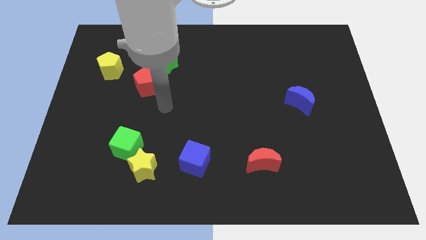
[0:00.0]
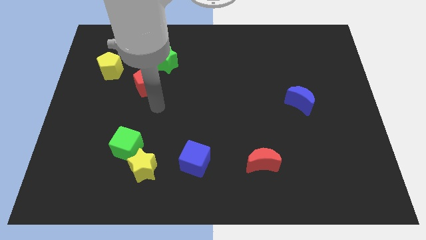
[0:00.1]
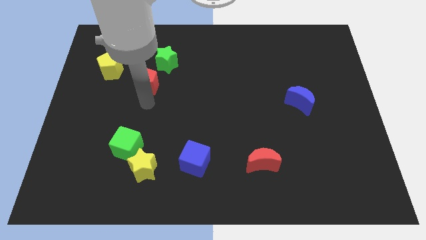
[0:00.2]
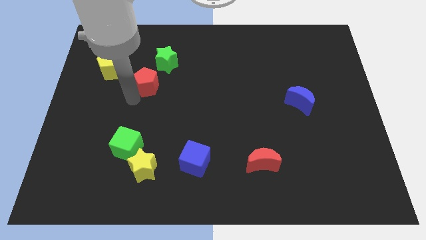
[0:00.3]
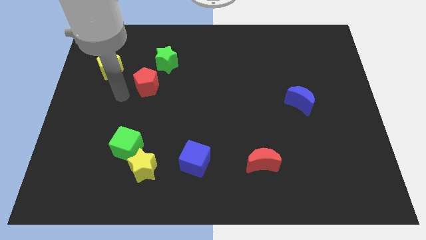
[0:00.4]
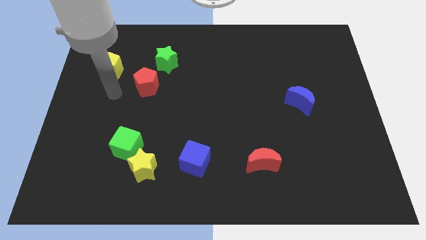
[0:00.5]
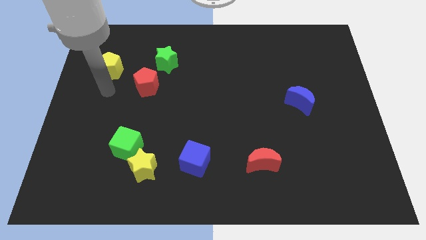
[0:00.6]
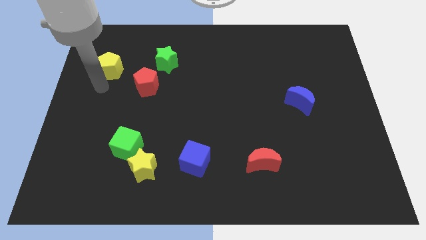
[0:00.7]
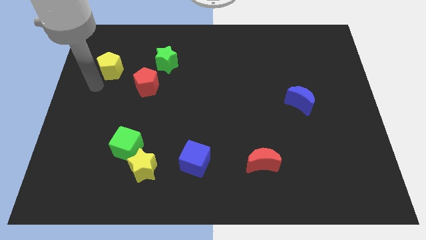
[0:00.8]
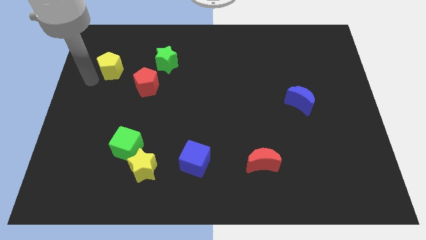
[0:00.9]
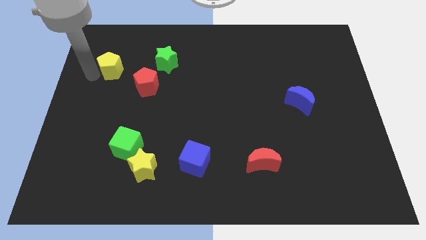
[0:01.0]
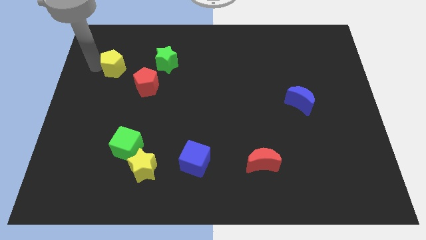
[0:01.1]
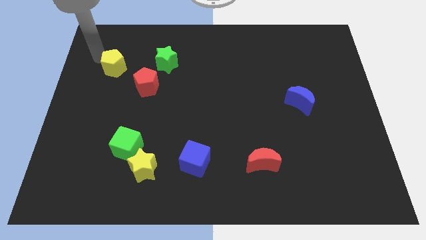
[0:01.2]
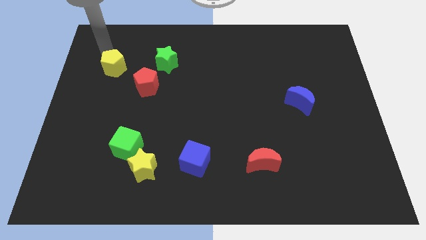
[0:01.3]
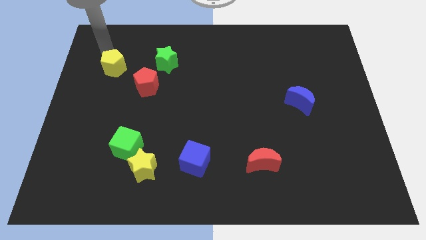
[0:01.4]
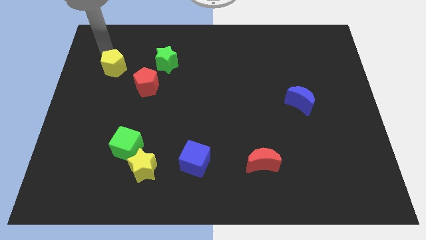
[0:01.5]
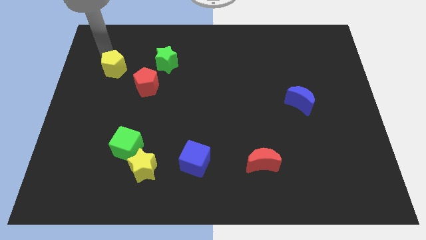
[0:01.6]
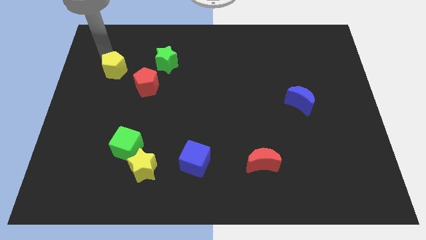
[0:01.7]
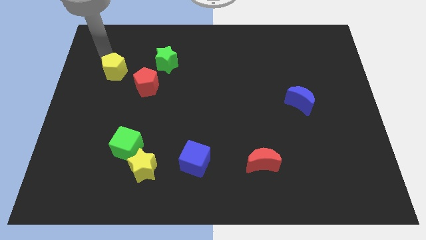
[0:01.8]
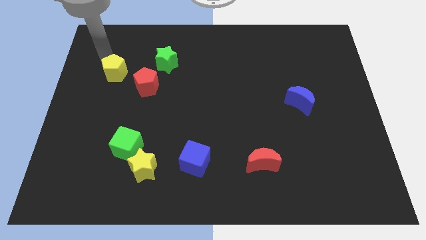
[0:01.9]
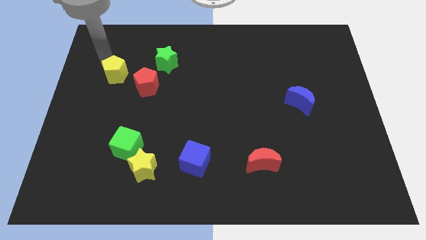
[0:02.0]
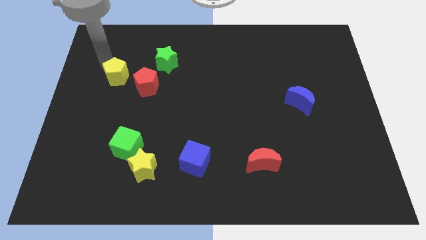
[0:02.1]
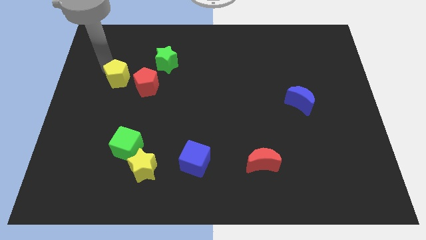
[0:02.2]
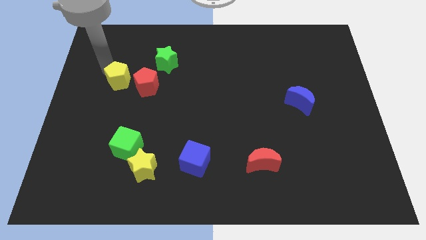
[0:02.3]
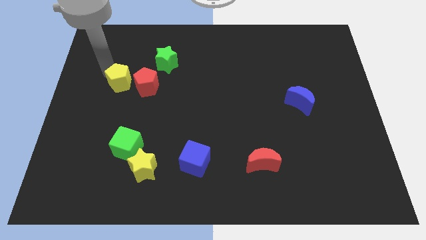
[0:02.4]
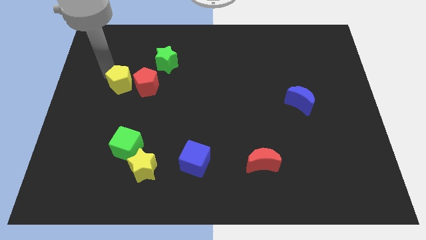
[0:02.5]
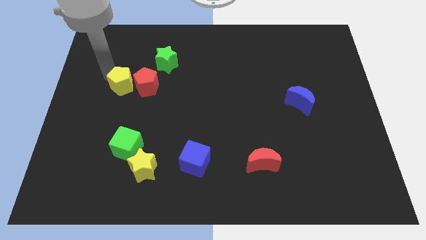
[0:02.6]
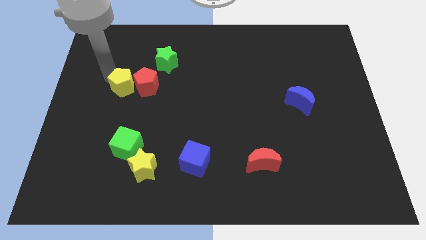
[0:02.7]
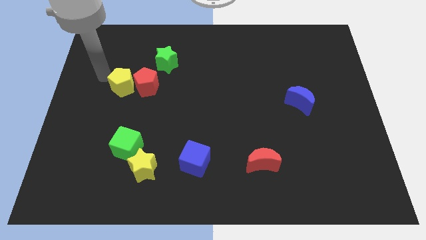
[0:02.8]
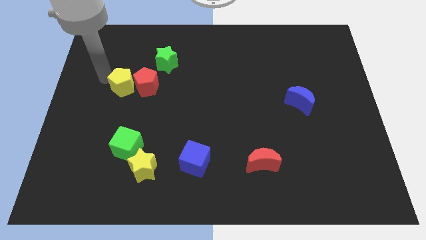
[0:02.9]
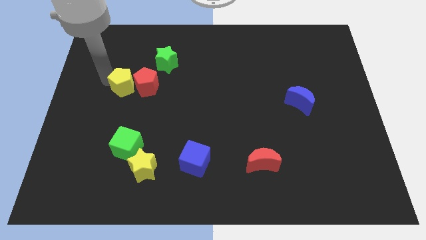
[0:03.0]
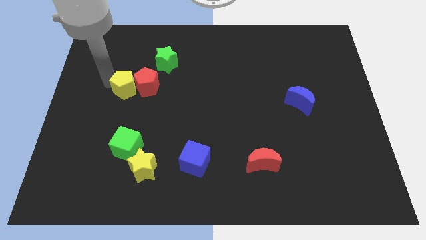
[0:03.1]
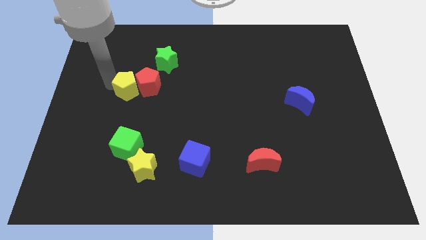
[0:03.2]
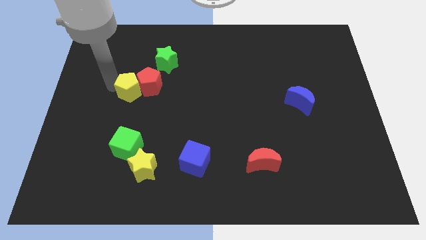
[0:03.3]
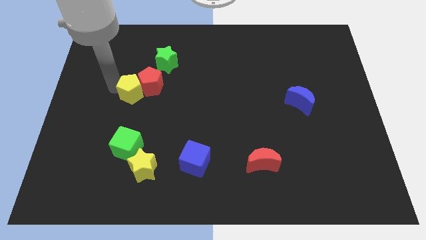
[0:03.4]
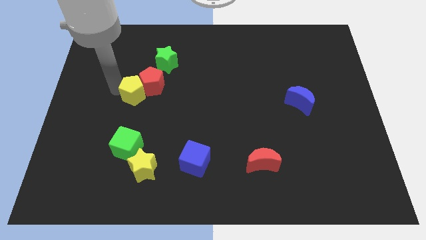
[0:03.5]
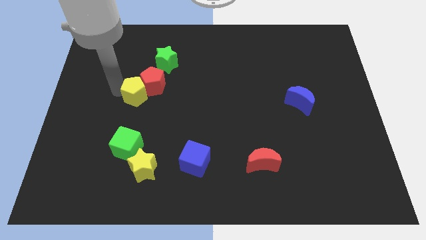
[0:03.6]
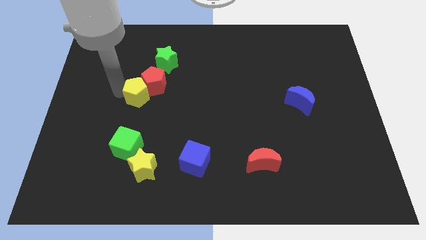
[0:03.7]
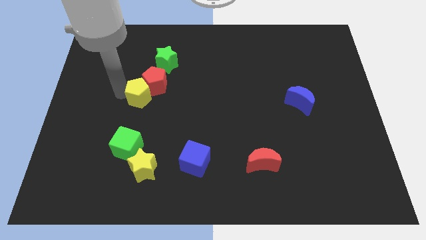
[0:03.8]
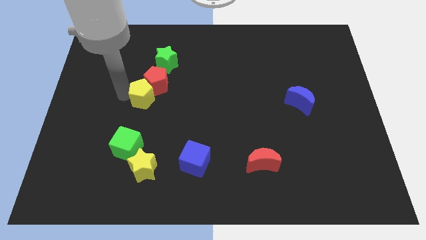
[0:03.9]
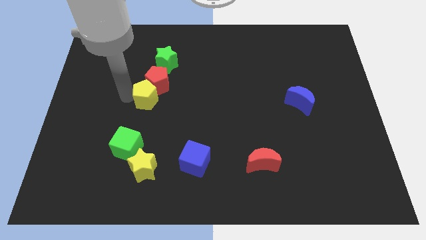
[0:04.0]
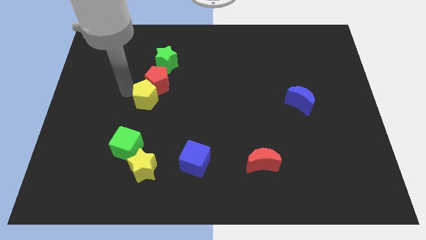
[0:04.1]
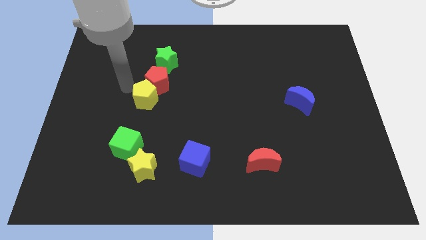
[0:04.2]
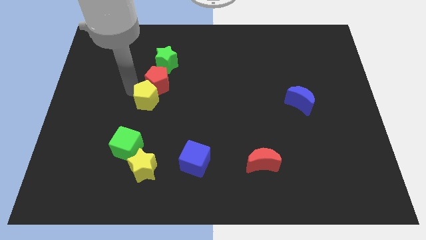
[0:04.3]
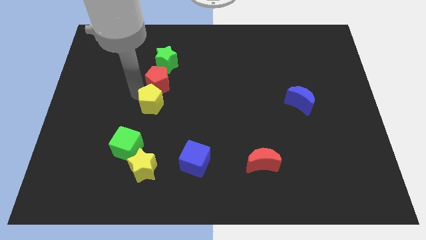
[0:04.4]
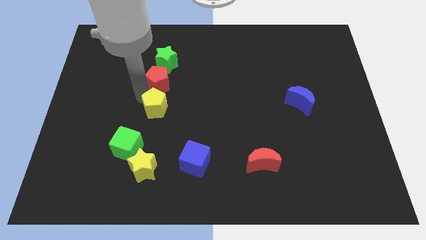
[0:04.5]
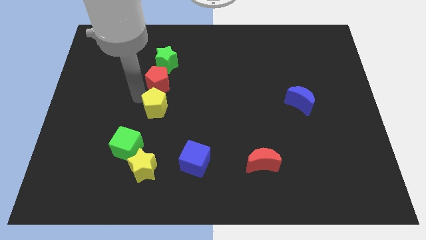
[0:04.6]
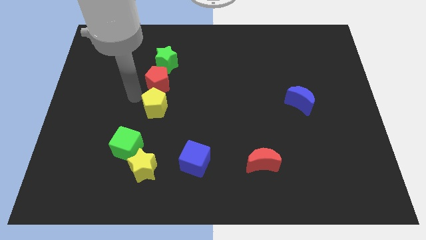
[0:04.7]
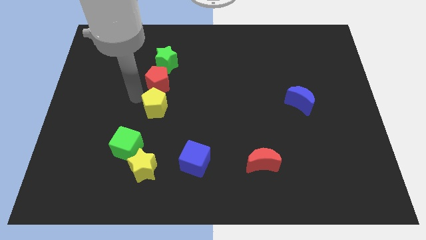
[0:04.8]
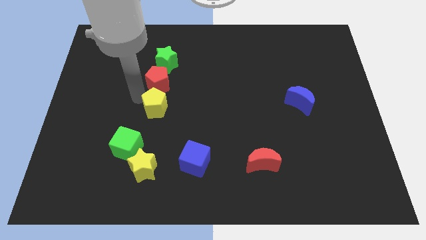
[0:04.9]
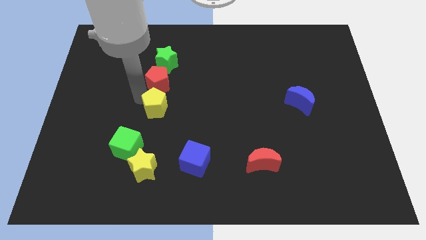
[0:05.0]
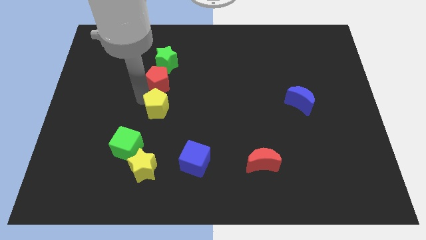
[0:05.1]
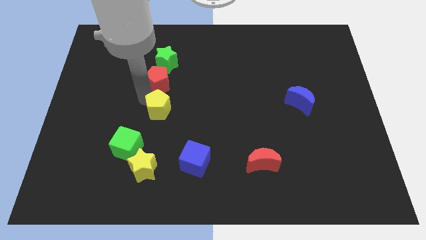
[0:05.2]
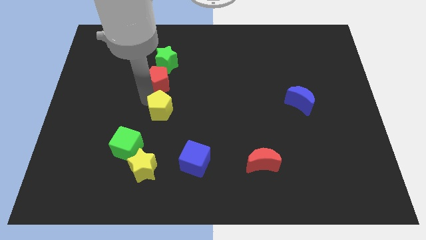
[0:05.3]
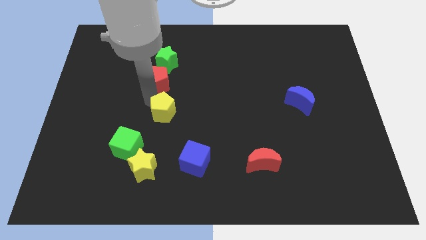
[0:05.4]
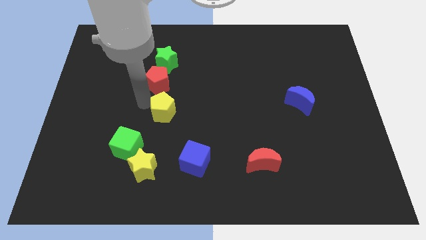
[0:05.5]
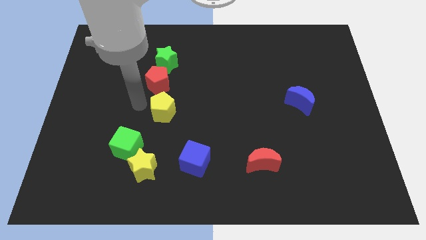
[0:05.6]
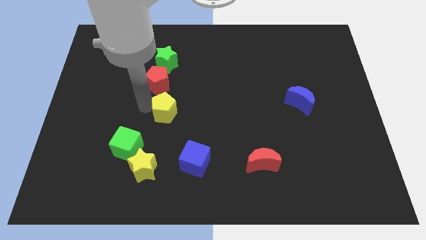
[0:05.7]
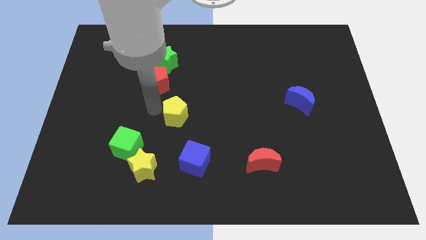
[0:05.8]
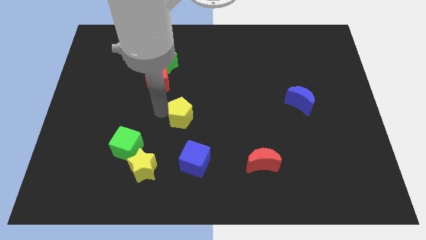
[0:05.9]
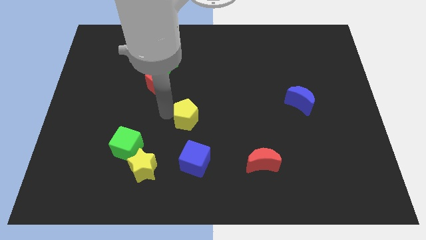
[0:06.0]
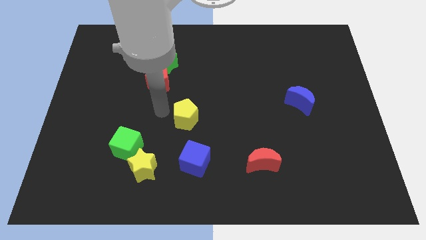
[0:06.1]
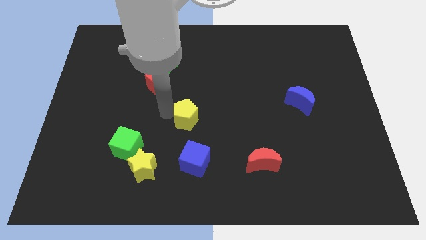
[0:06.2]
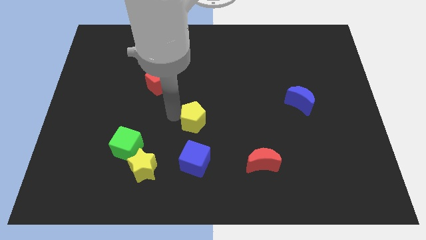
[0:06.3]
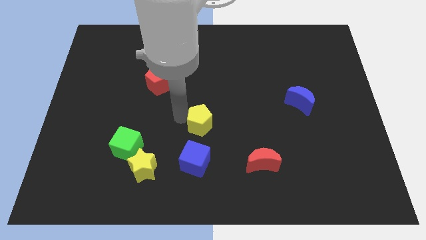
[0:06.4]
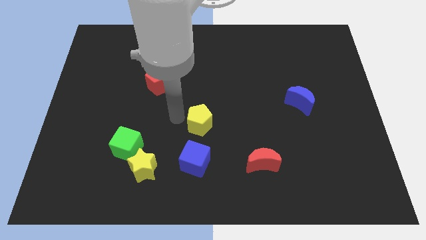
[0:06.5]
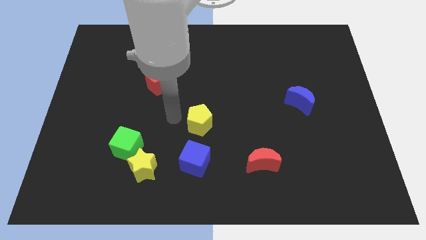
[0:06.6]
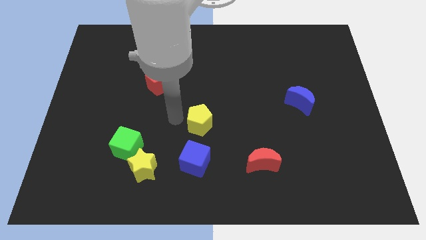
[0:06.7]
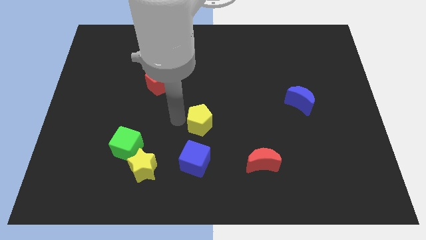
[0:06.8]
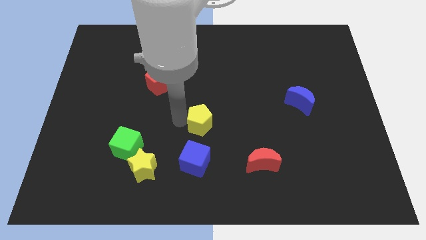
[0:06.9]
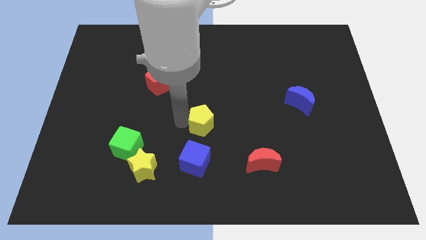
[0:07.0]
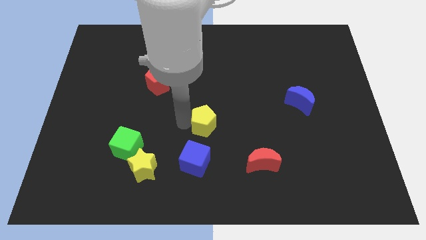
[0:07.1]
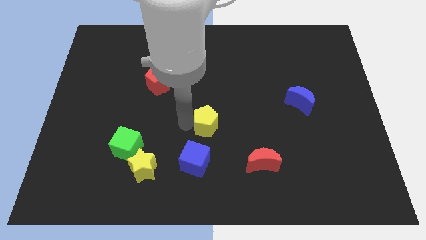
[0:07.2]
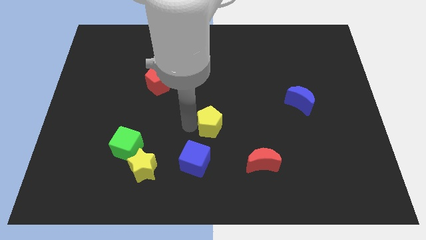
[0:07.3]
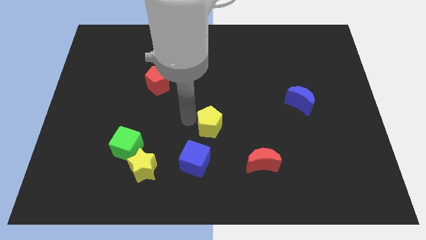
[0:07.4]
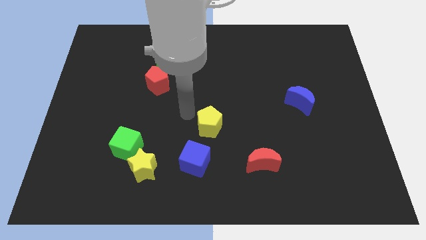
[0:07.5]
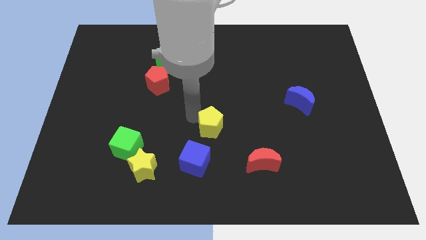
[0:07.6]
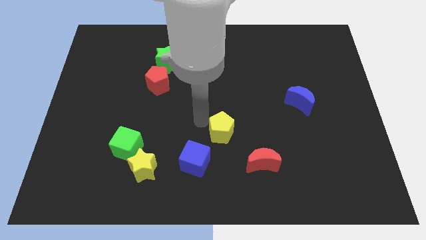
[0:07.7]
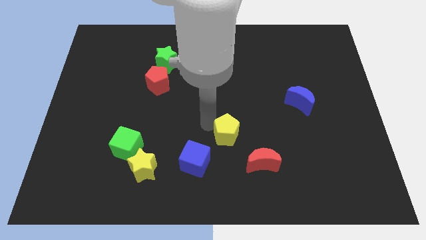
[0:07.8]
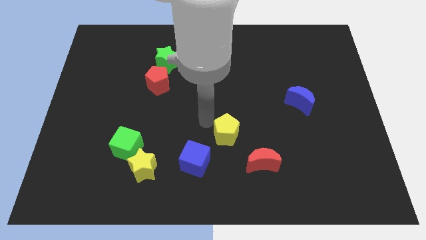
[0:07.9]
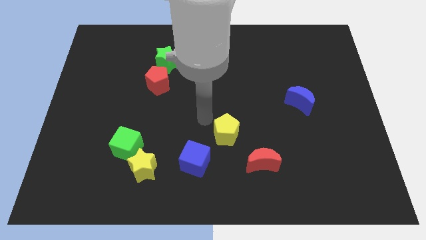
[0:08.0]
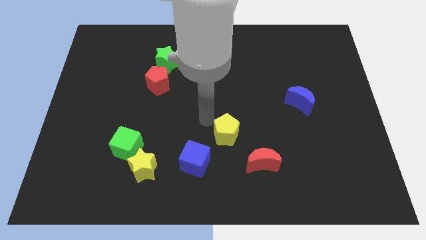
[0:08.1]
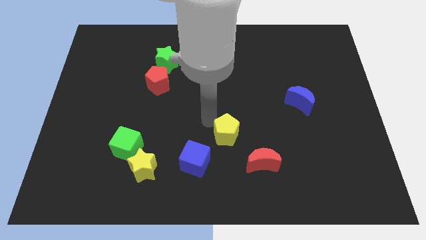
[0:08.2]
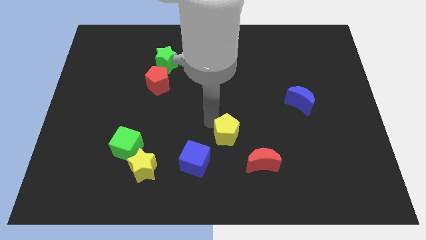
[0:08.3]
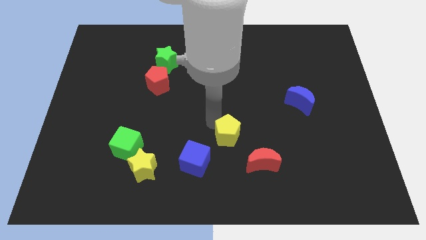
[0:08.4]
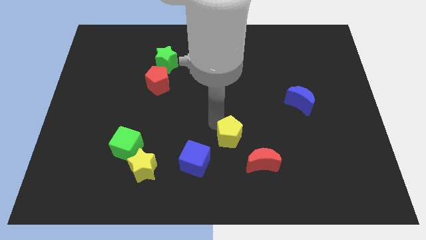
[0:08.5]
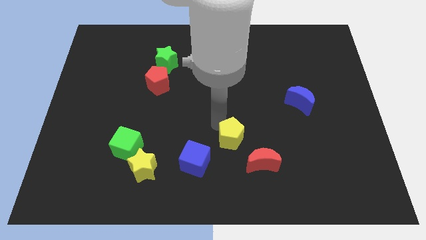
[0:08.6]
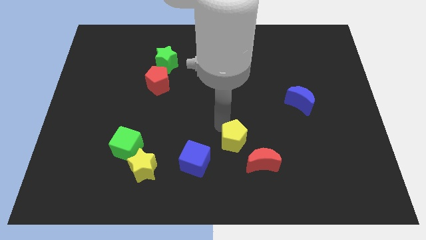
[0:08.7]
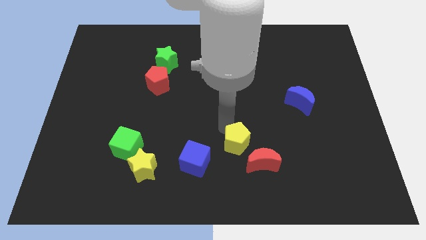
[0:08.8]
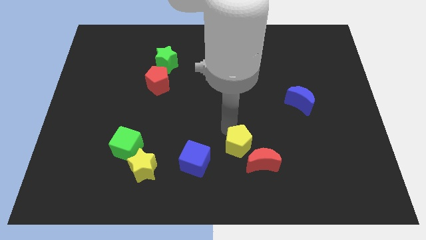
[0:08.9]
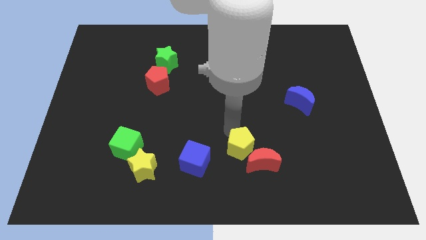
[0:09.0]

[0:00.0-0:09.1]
push the yellow pentagon towards the red moon
